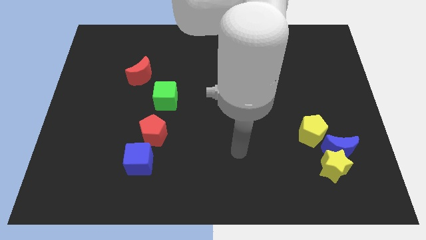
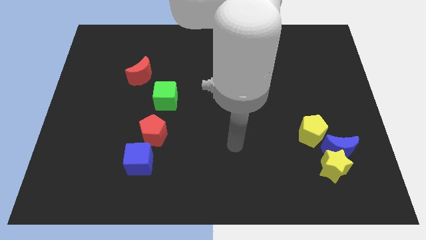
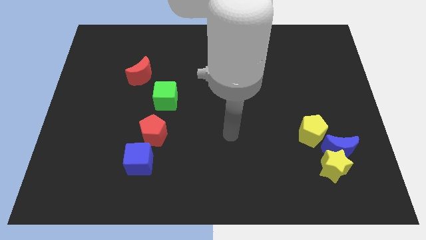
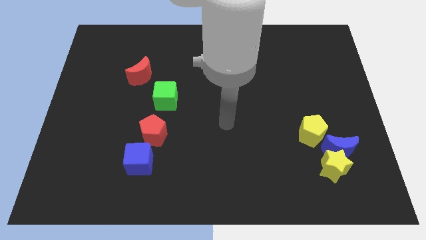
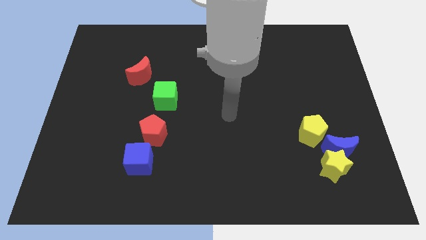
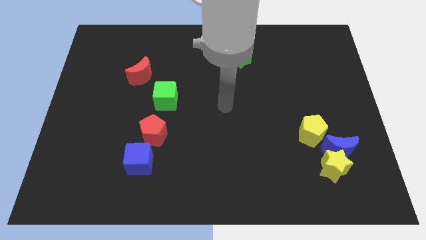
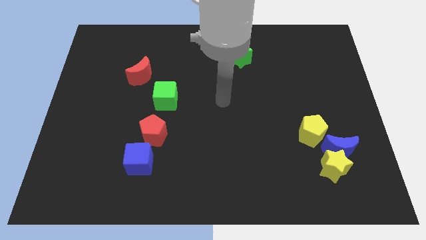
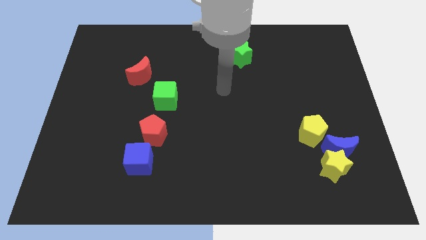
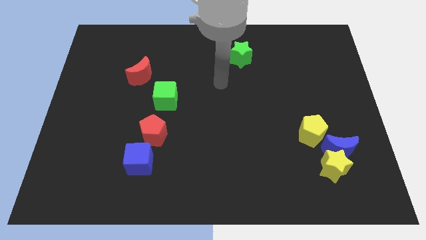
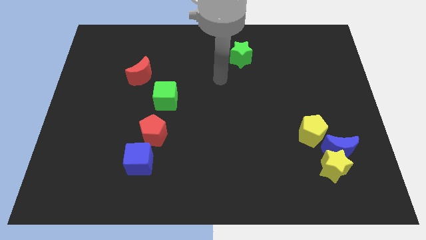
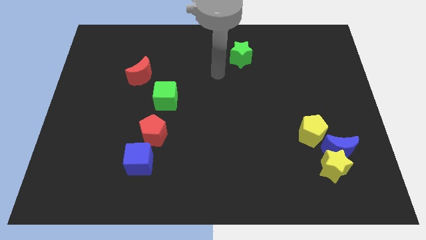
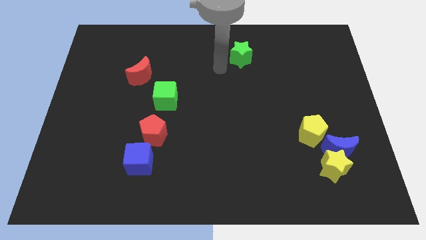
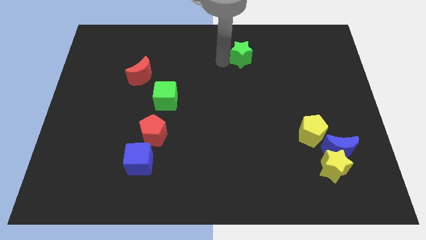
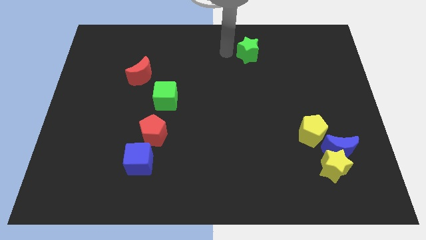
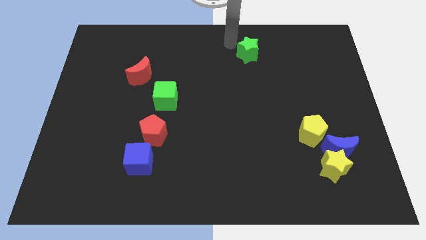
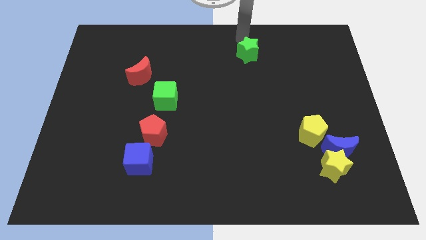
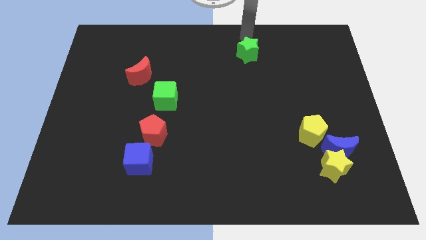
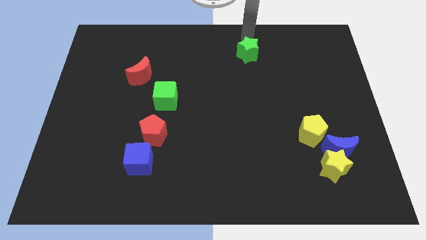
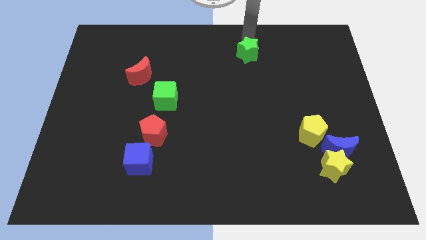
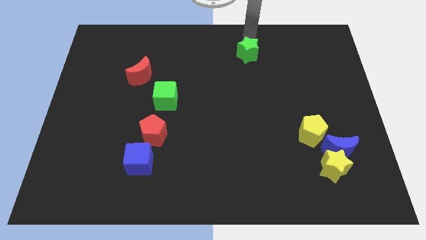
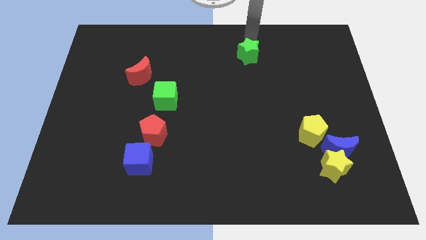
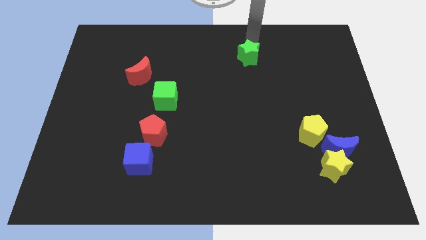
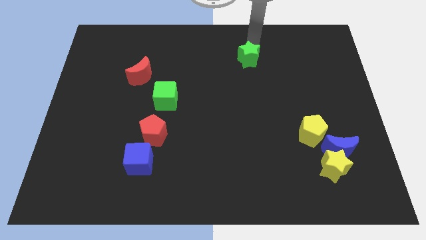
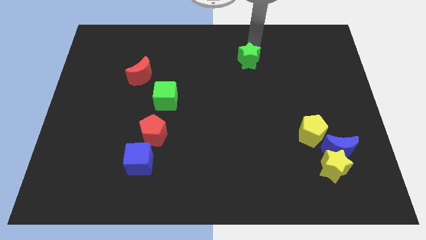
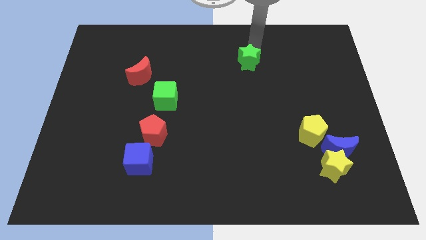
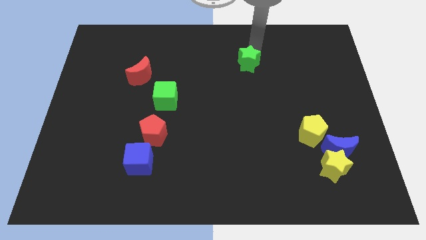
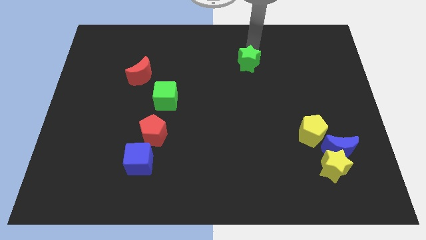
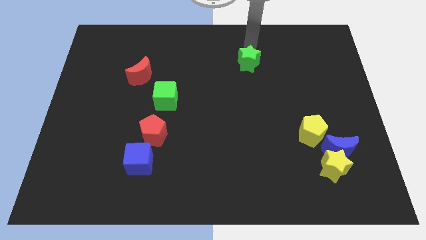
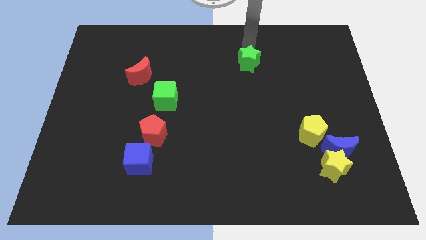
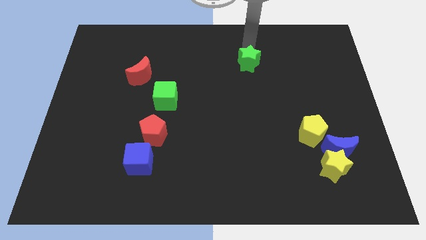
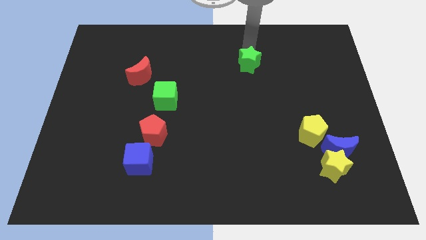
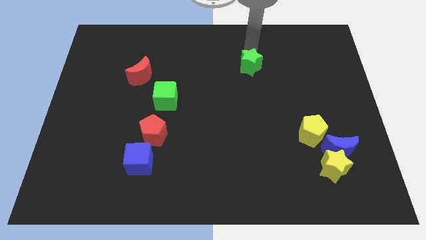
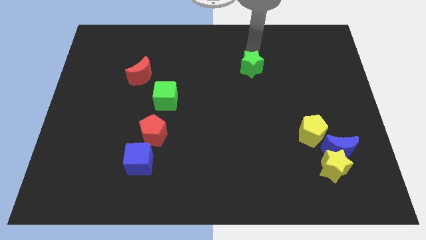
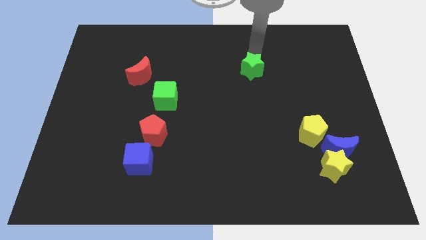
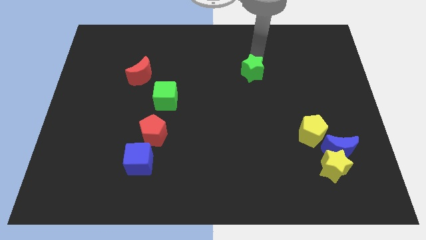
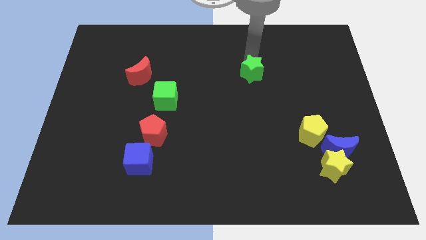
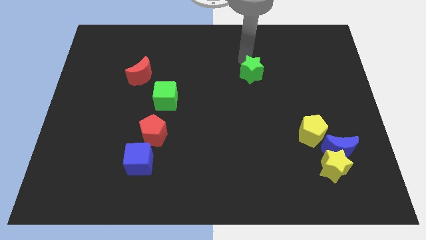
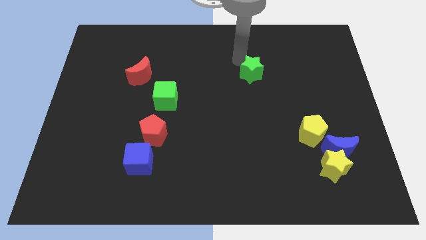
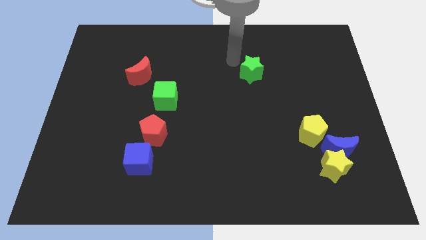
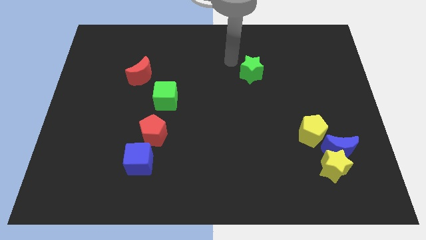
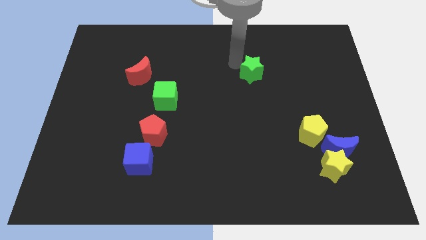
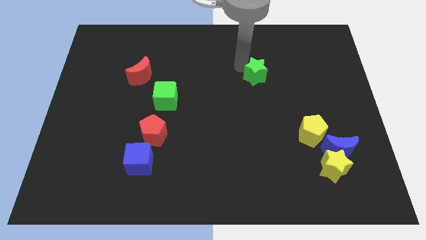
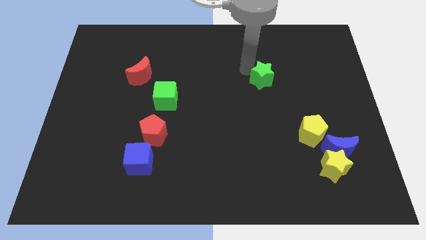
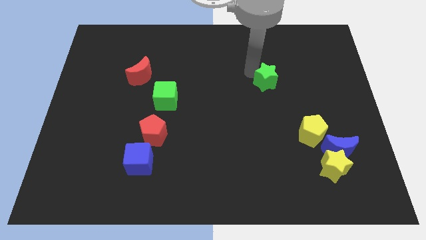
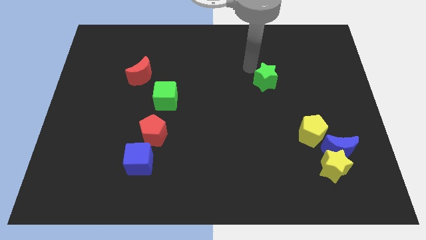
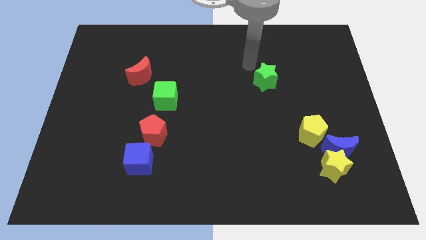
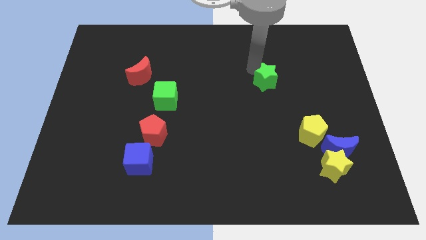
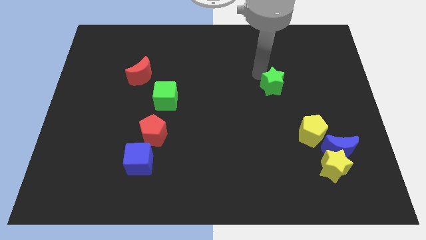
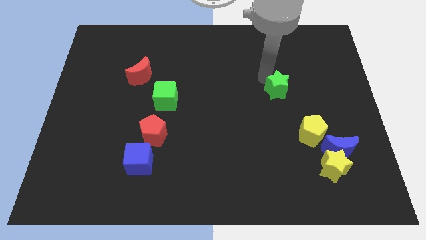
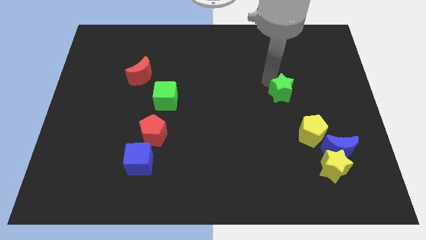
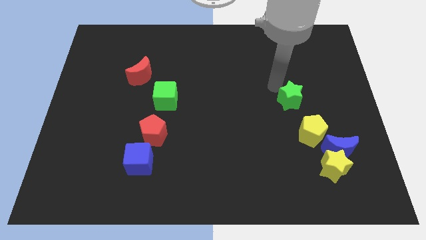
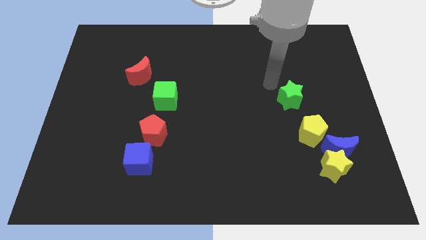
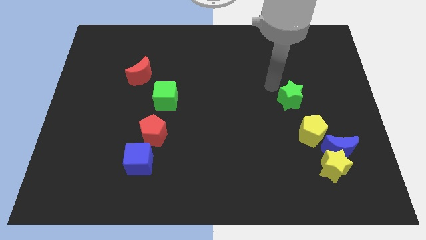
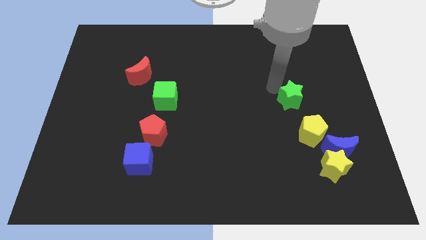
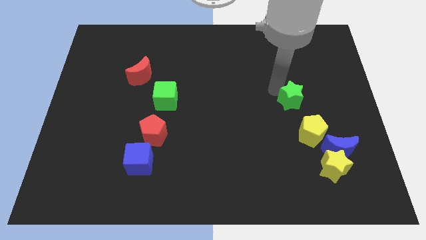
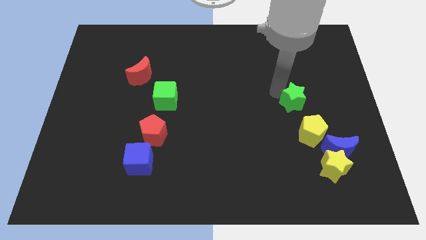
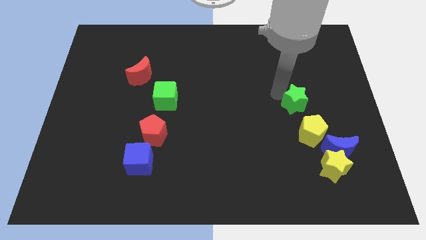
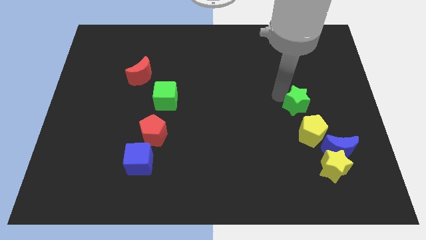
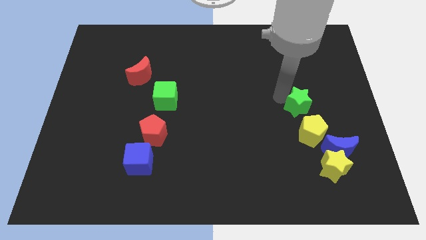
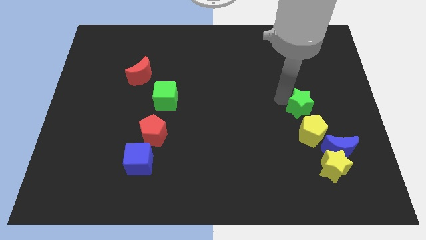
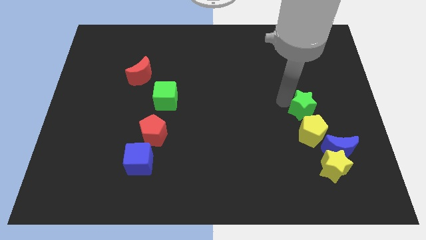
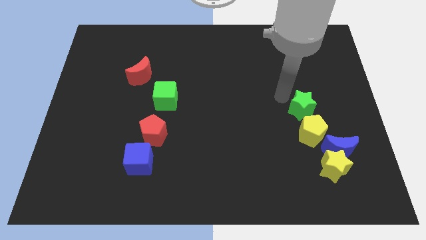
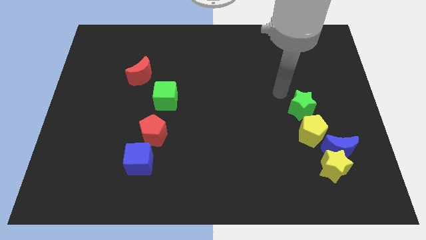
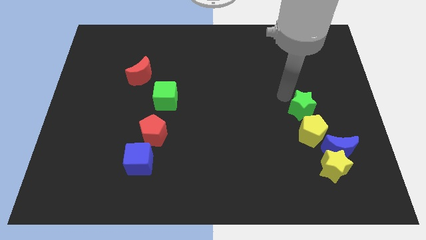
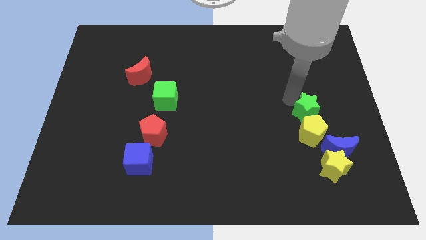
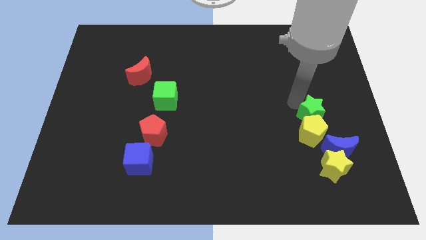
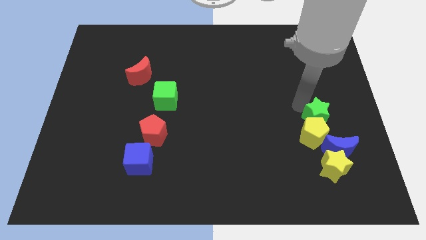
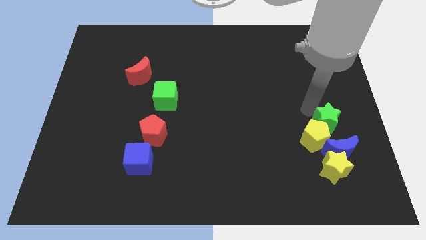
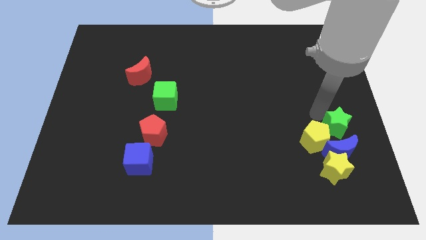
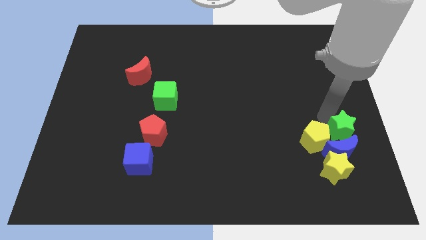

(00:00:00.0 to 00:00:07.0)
push the green star next to the blue moon

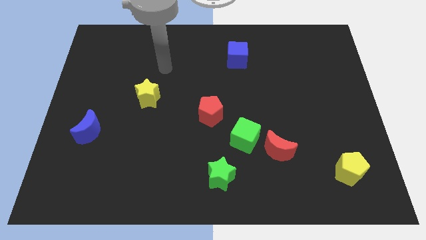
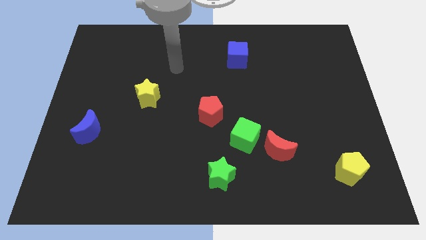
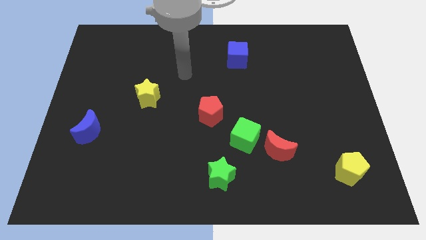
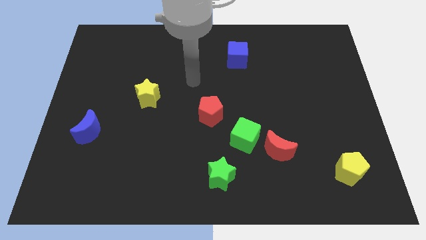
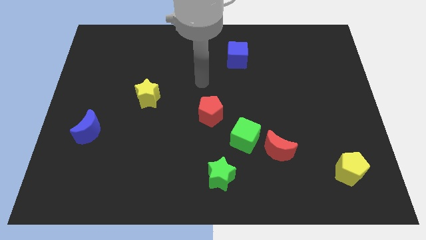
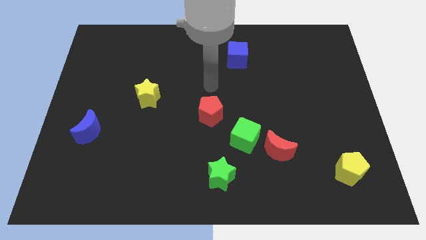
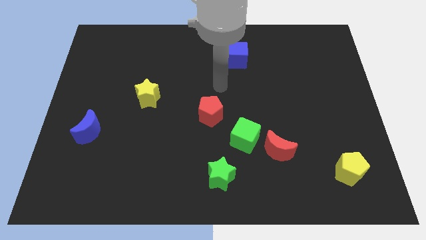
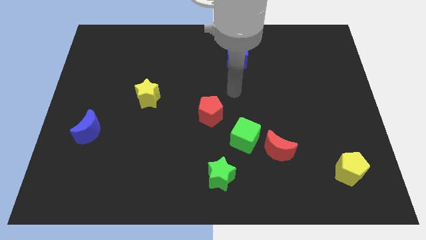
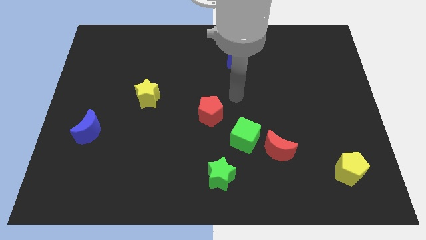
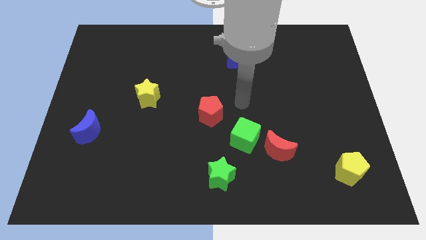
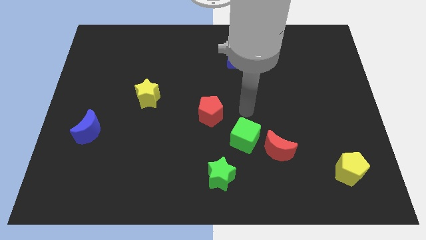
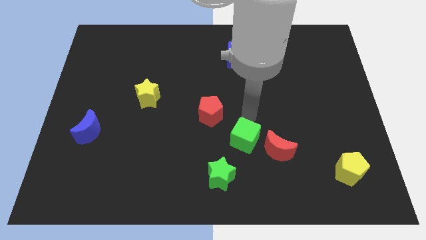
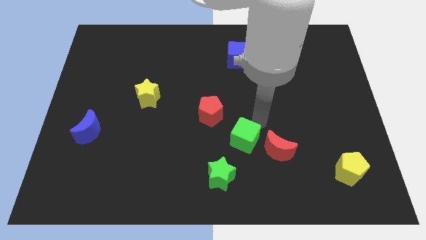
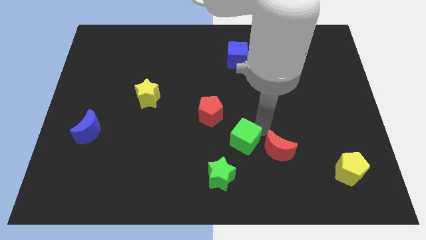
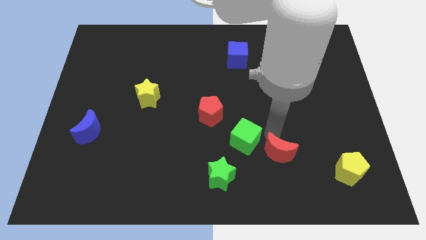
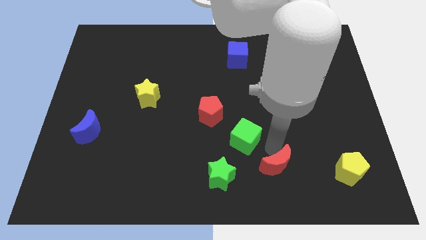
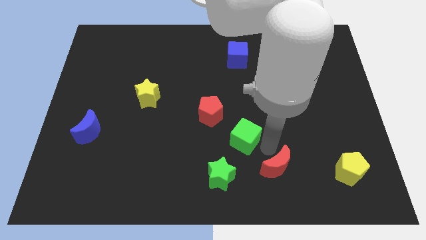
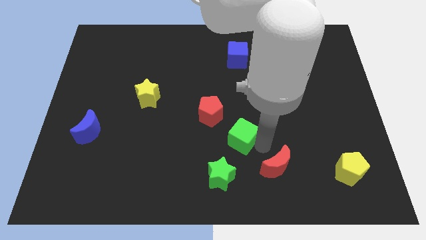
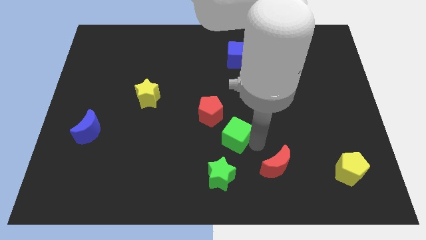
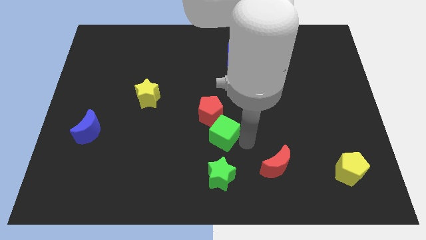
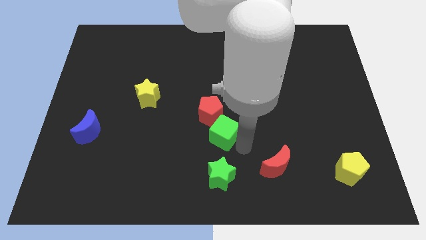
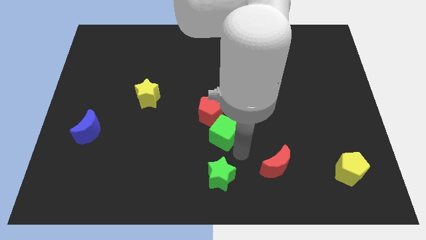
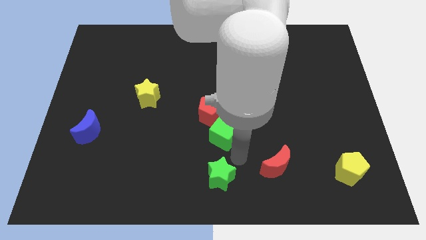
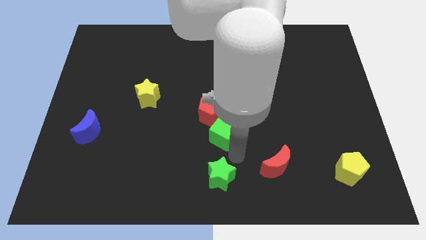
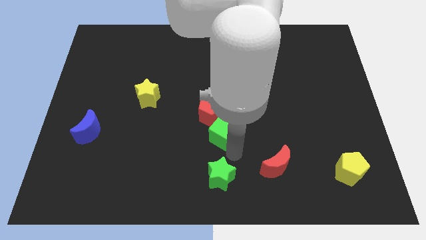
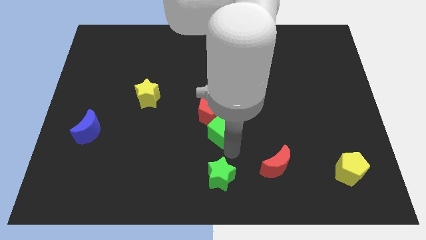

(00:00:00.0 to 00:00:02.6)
put the green cube next to the red pentagon
